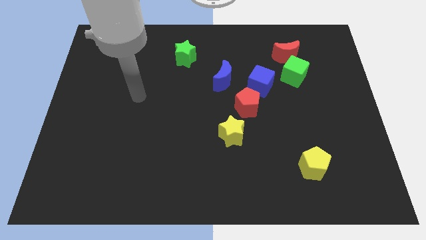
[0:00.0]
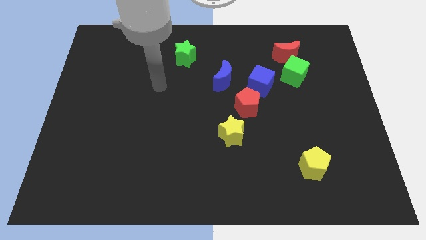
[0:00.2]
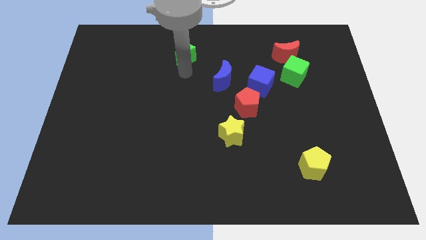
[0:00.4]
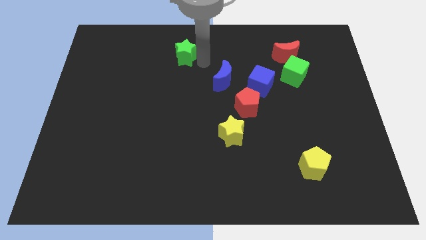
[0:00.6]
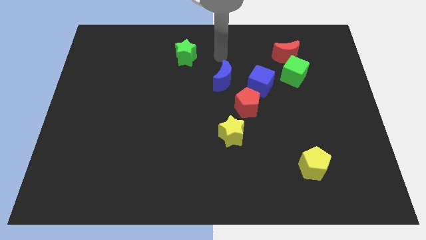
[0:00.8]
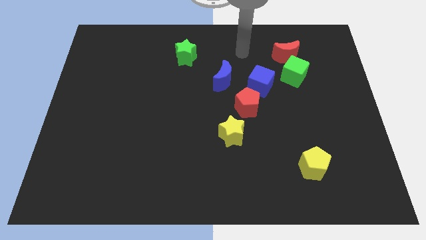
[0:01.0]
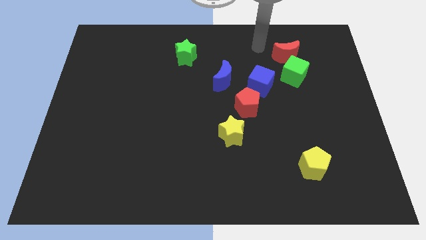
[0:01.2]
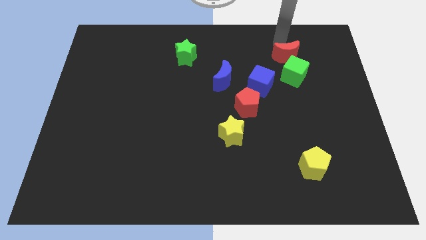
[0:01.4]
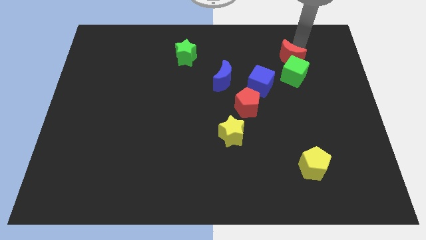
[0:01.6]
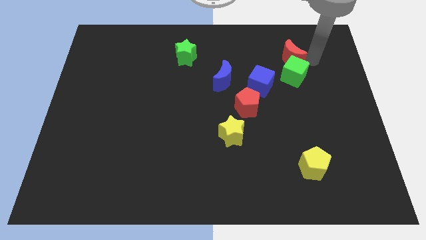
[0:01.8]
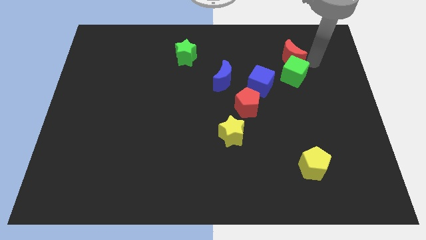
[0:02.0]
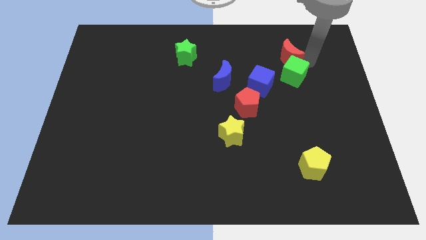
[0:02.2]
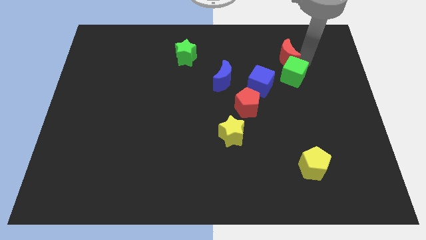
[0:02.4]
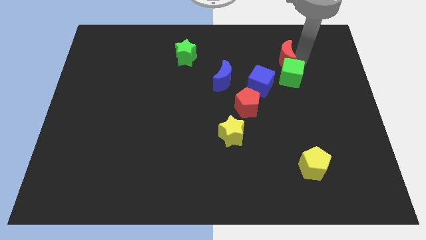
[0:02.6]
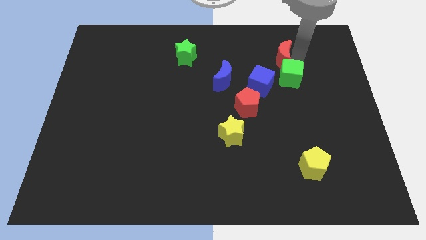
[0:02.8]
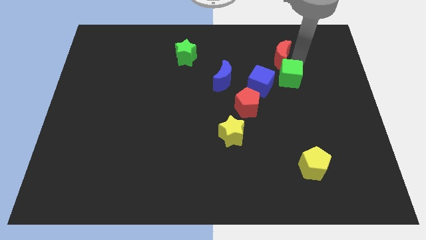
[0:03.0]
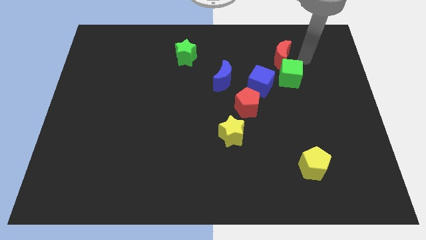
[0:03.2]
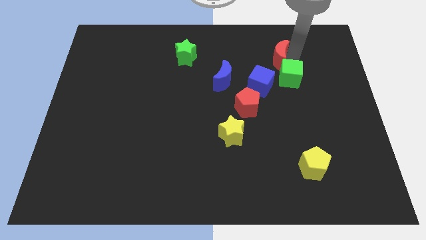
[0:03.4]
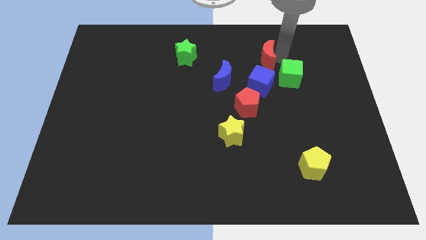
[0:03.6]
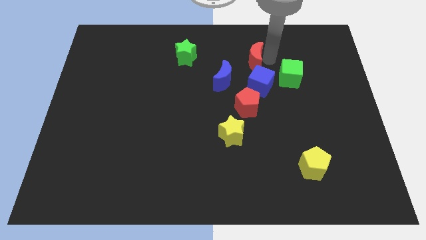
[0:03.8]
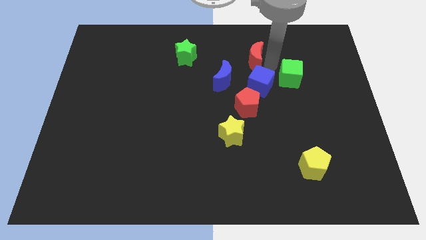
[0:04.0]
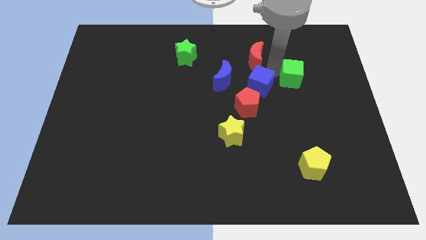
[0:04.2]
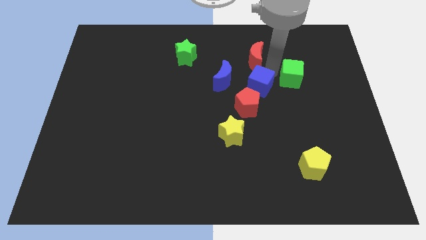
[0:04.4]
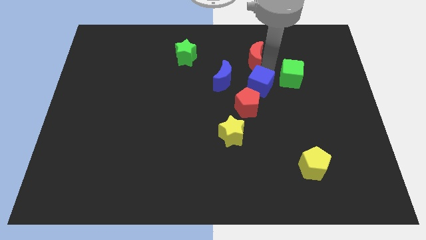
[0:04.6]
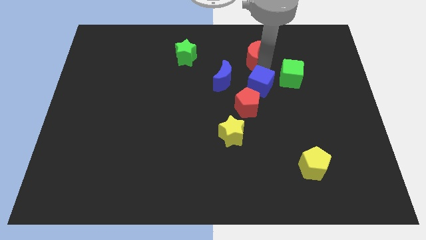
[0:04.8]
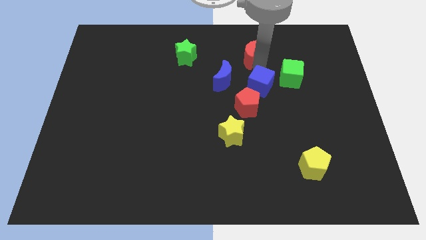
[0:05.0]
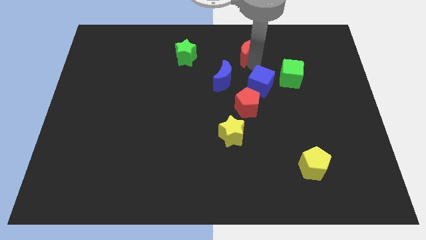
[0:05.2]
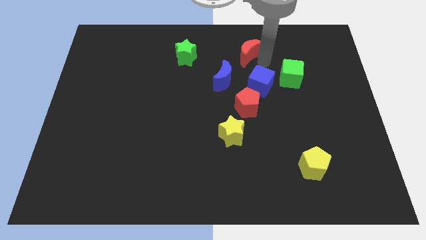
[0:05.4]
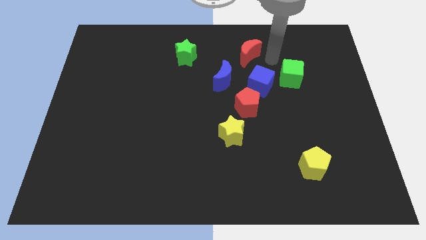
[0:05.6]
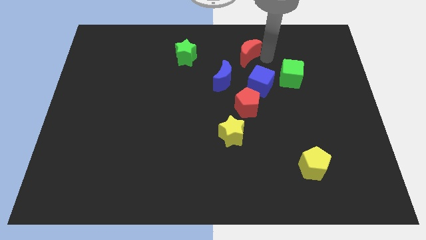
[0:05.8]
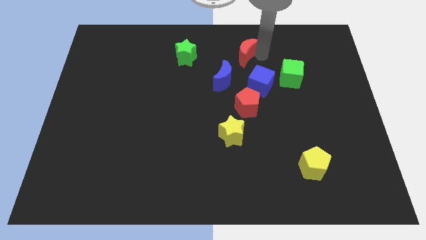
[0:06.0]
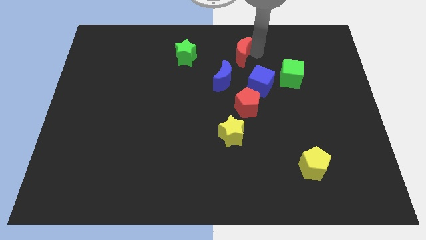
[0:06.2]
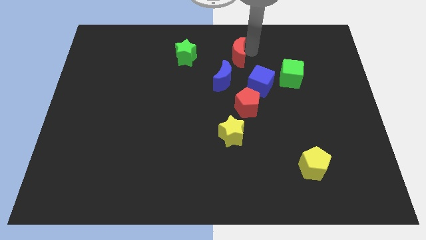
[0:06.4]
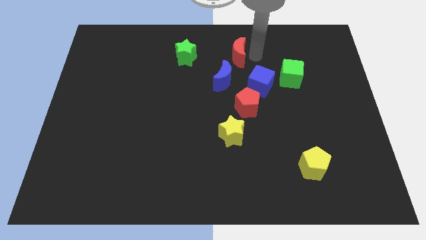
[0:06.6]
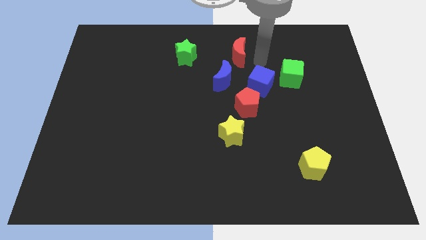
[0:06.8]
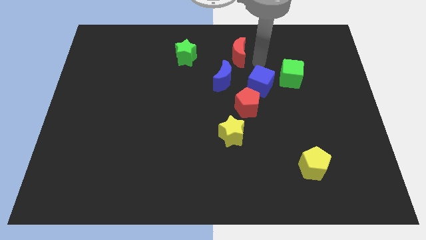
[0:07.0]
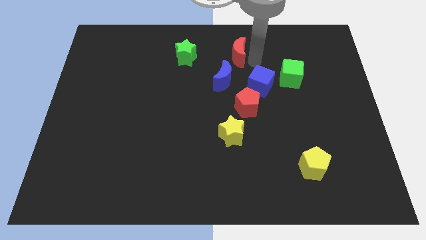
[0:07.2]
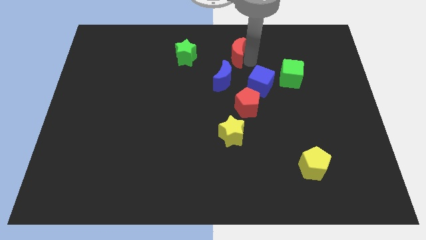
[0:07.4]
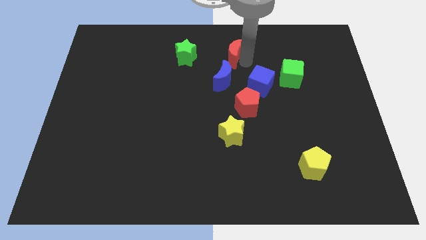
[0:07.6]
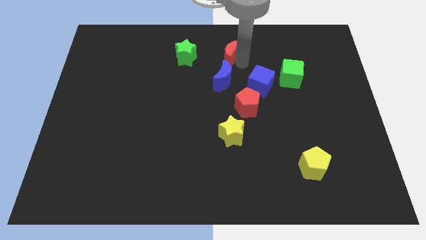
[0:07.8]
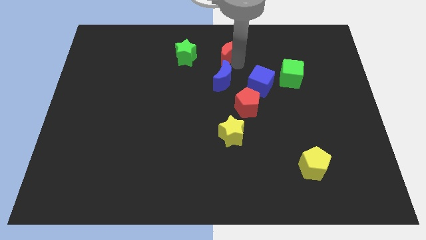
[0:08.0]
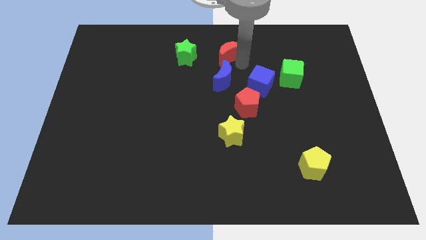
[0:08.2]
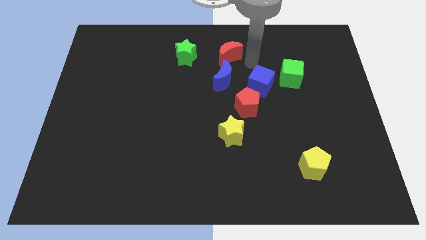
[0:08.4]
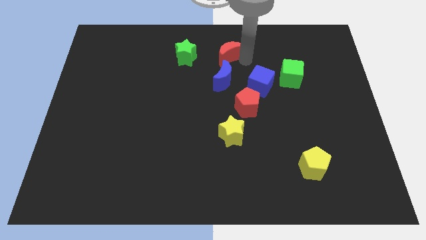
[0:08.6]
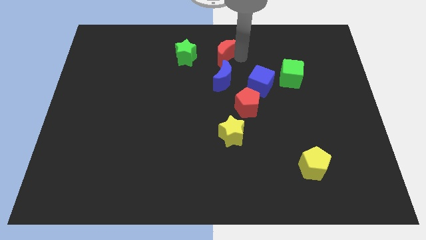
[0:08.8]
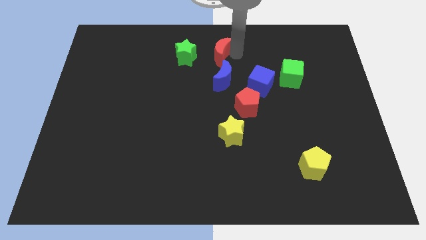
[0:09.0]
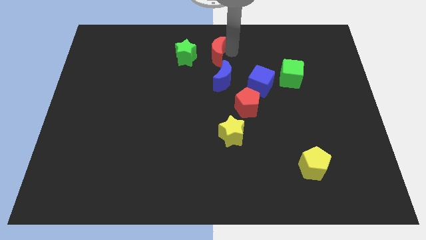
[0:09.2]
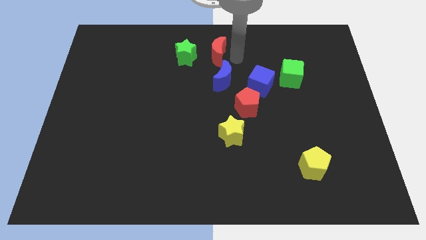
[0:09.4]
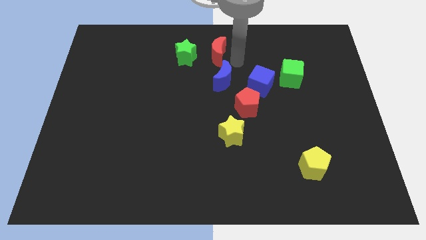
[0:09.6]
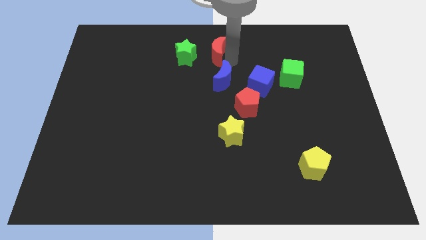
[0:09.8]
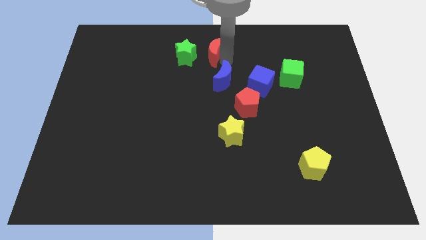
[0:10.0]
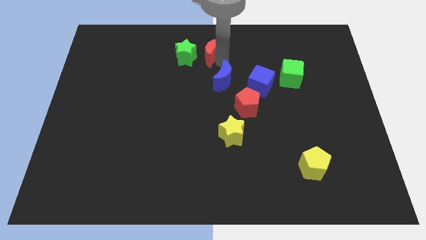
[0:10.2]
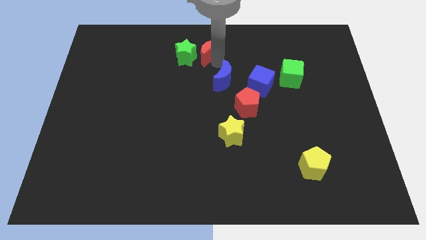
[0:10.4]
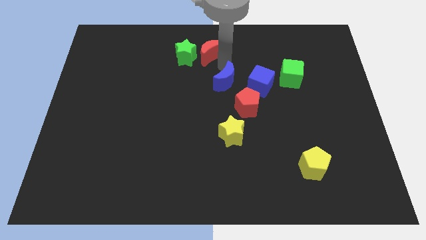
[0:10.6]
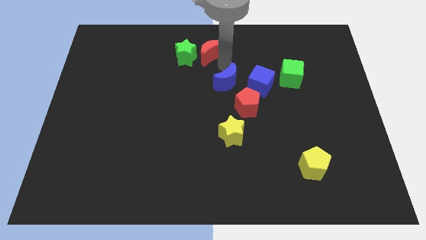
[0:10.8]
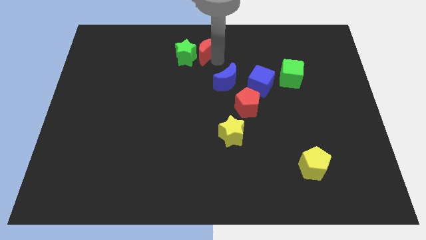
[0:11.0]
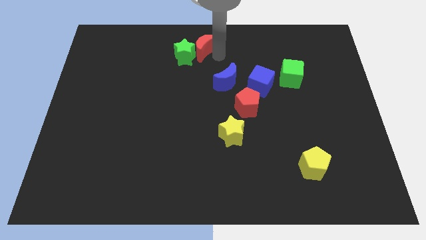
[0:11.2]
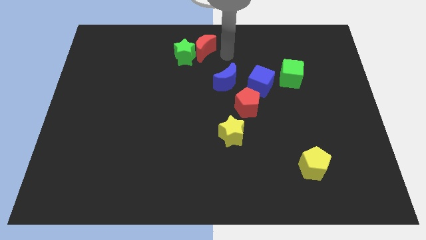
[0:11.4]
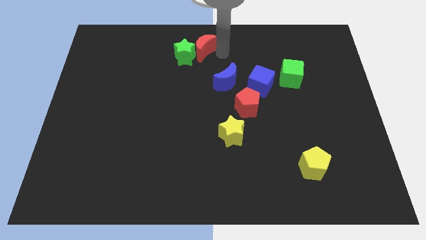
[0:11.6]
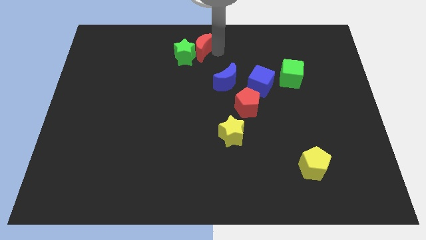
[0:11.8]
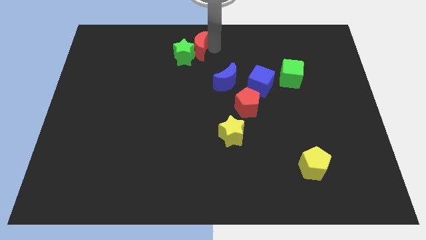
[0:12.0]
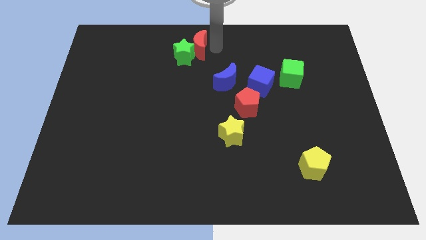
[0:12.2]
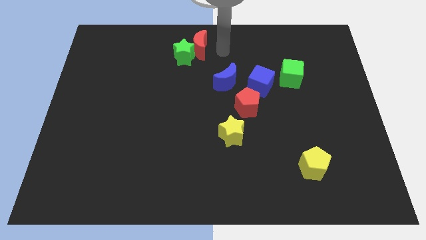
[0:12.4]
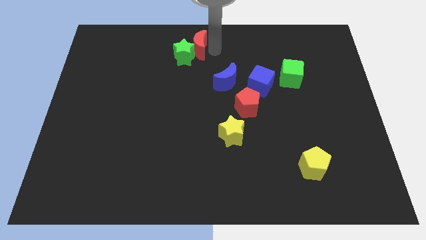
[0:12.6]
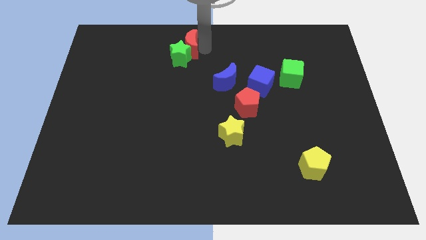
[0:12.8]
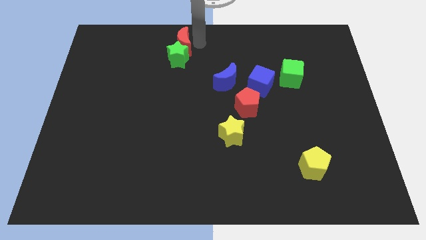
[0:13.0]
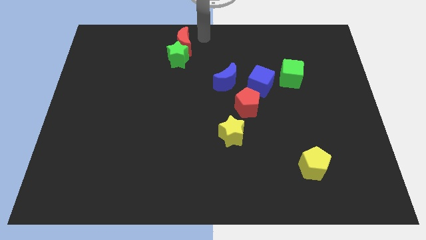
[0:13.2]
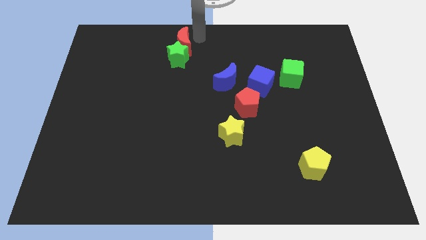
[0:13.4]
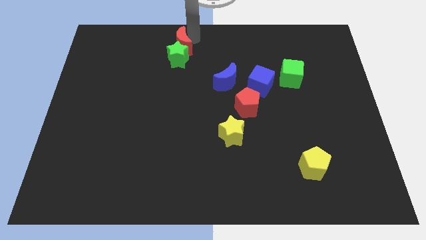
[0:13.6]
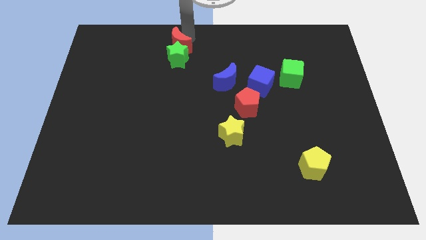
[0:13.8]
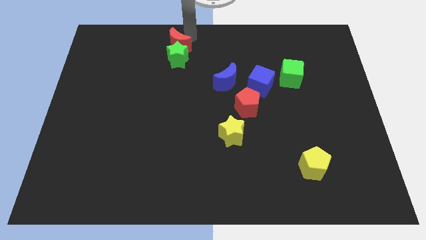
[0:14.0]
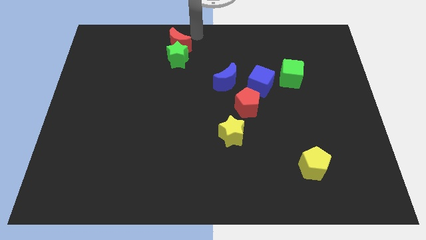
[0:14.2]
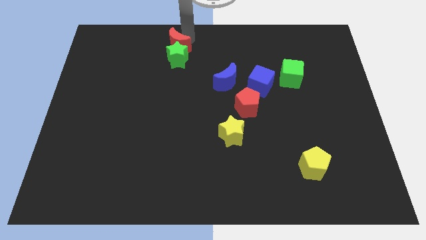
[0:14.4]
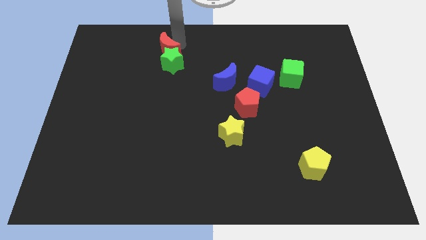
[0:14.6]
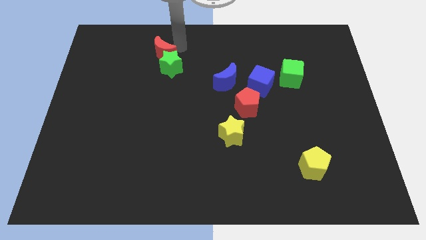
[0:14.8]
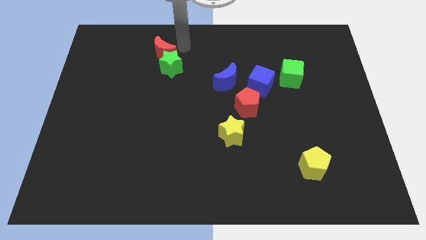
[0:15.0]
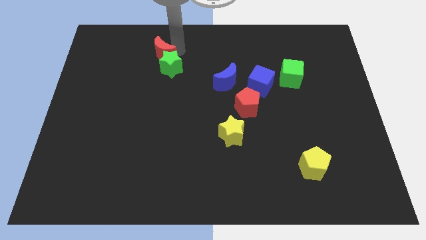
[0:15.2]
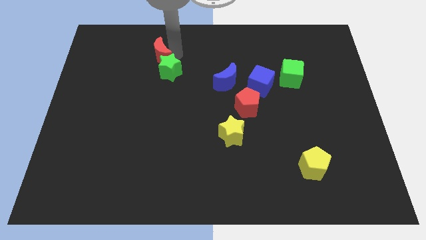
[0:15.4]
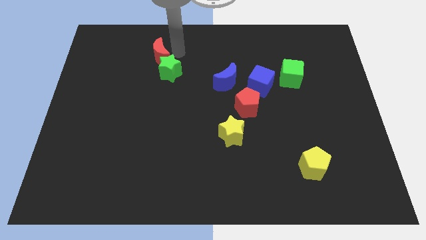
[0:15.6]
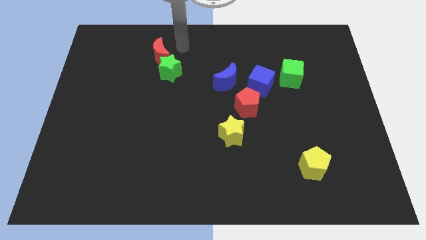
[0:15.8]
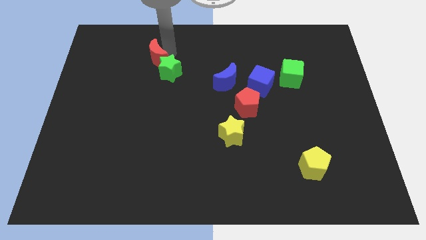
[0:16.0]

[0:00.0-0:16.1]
move the red moon to the left side of the green star
